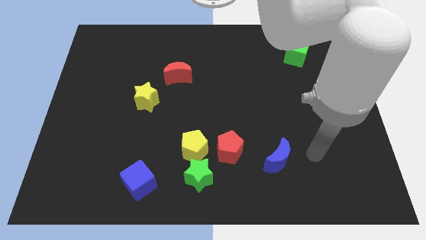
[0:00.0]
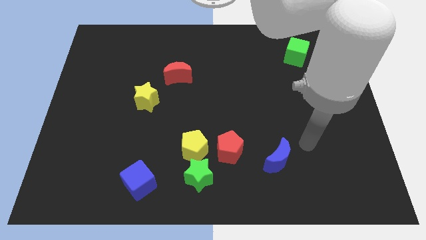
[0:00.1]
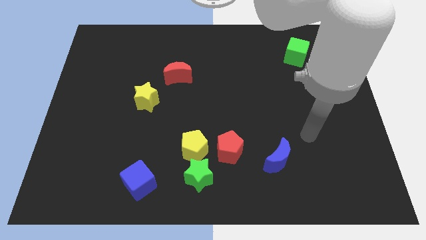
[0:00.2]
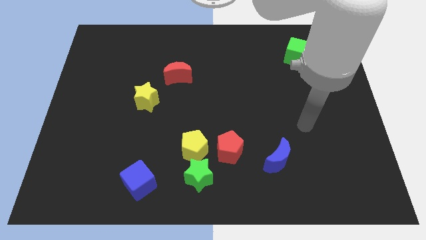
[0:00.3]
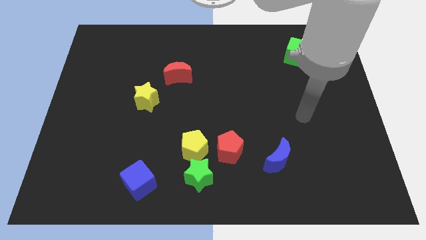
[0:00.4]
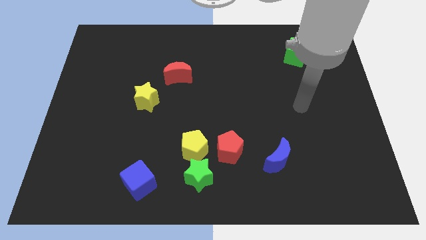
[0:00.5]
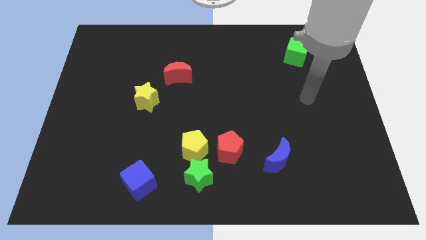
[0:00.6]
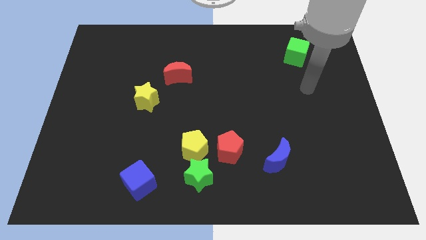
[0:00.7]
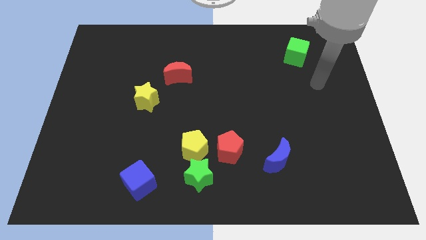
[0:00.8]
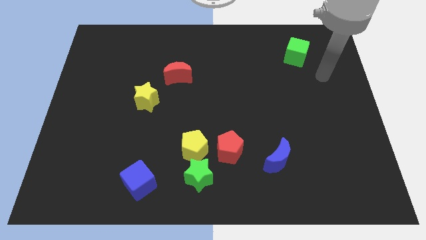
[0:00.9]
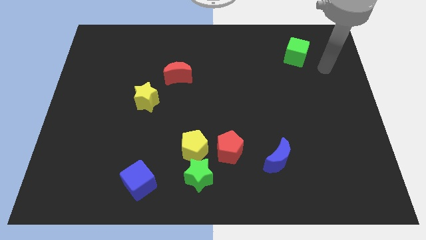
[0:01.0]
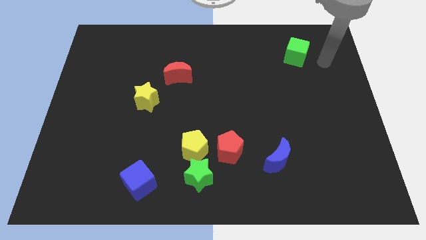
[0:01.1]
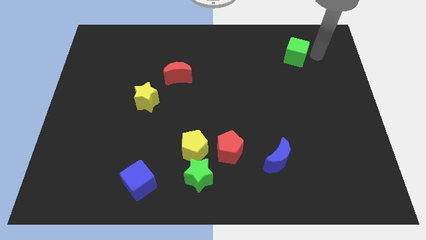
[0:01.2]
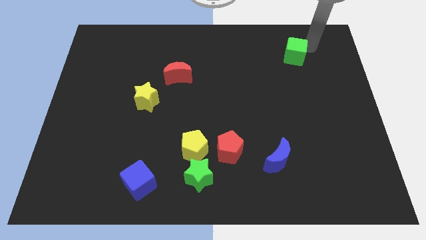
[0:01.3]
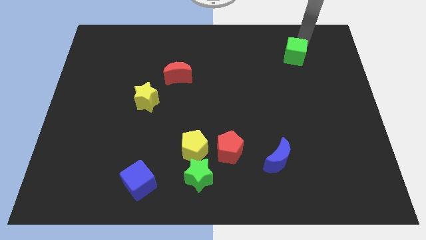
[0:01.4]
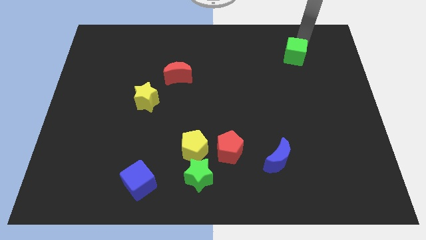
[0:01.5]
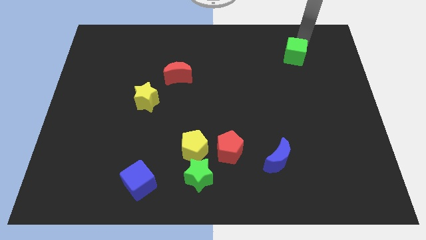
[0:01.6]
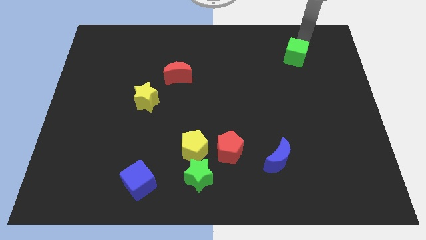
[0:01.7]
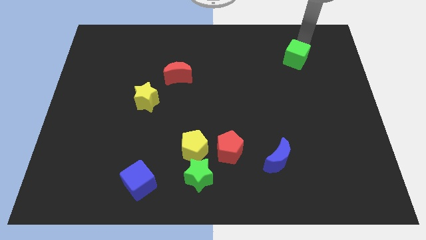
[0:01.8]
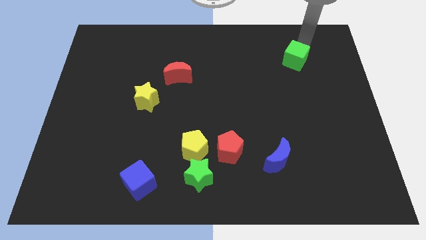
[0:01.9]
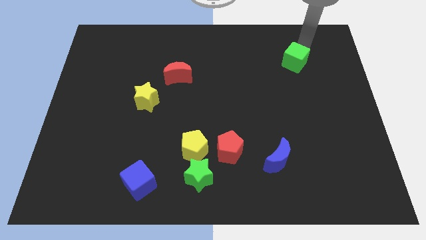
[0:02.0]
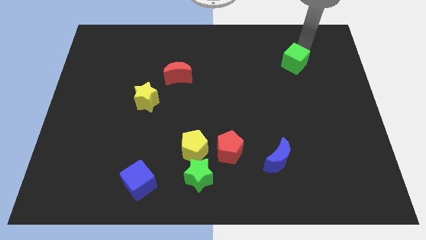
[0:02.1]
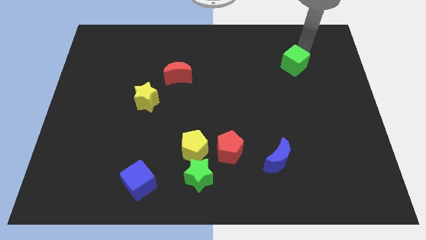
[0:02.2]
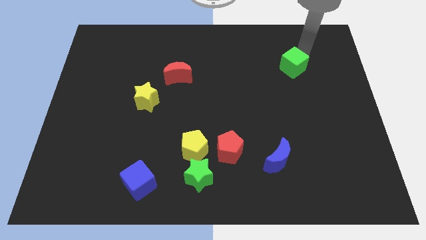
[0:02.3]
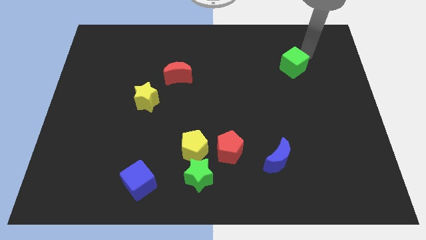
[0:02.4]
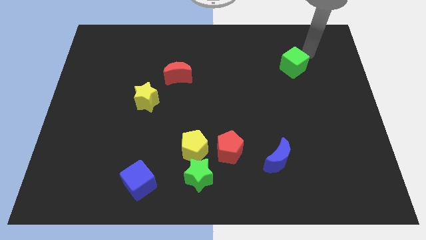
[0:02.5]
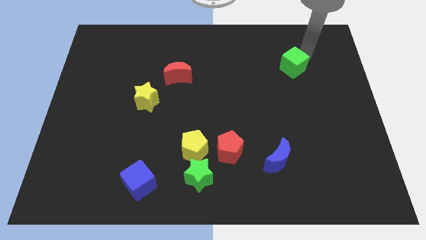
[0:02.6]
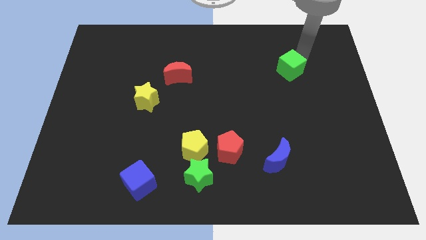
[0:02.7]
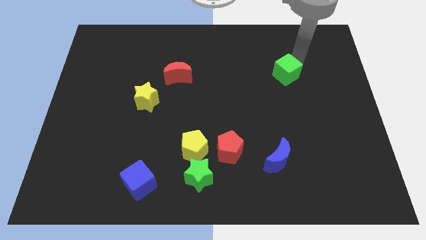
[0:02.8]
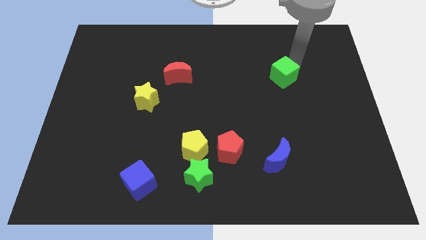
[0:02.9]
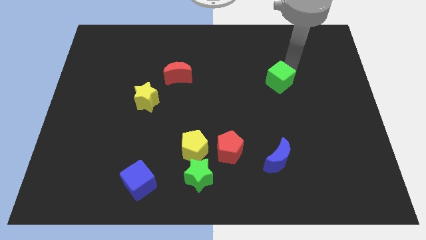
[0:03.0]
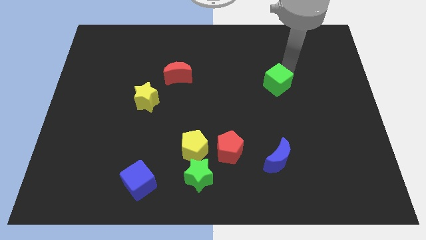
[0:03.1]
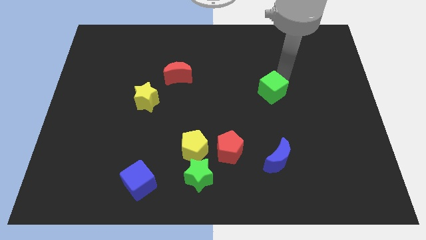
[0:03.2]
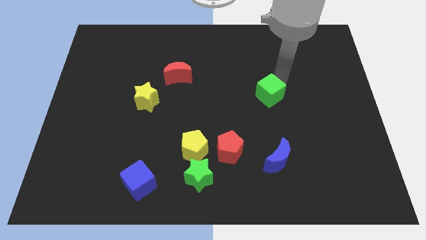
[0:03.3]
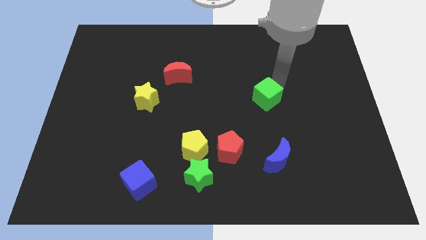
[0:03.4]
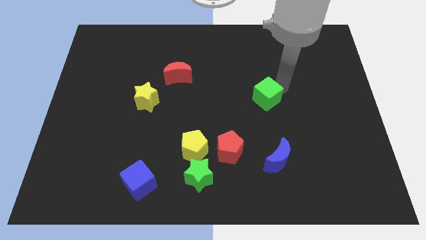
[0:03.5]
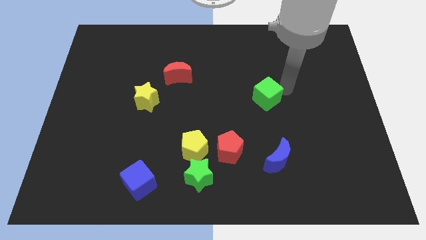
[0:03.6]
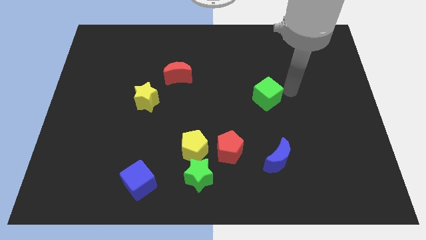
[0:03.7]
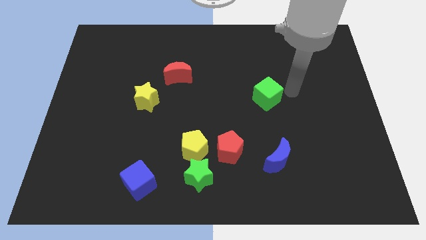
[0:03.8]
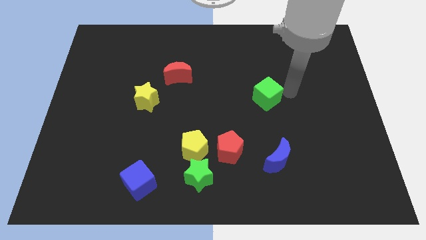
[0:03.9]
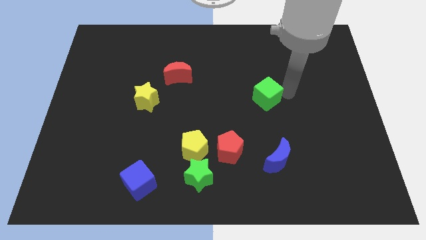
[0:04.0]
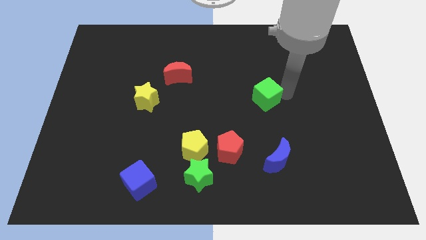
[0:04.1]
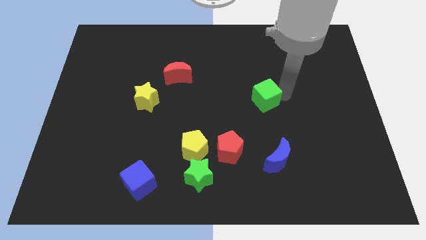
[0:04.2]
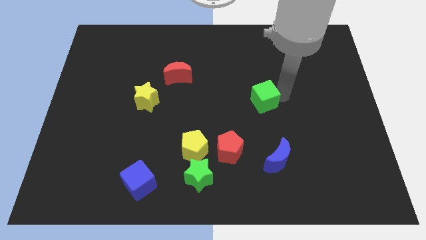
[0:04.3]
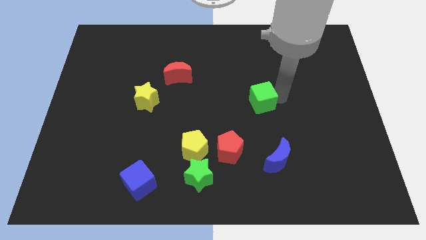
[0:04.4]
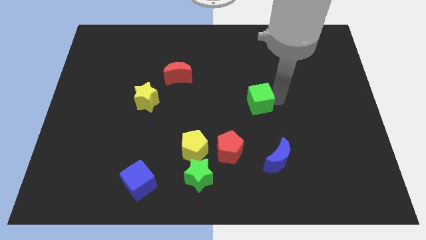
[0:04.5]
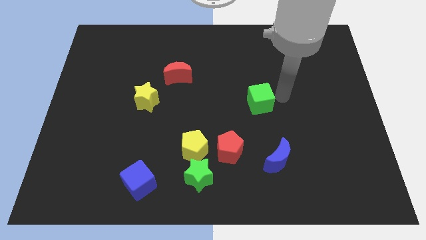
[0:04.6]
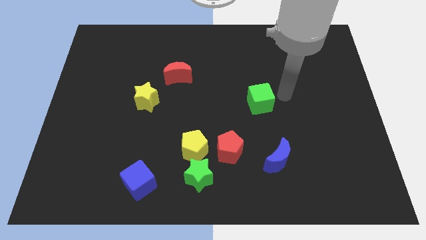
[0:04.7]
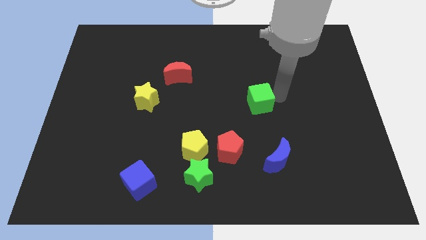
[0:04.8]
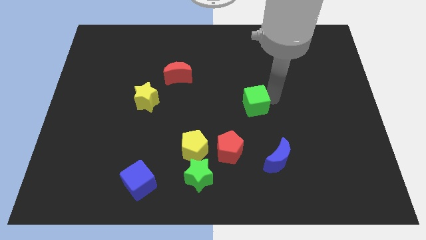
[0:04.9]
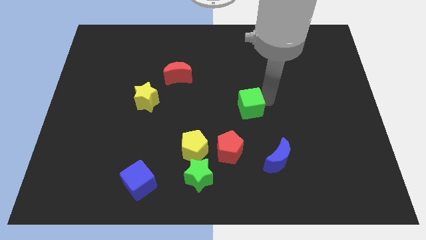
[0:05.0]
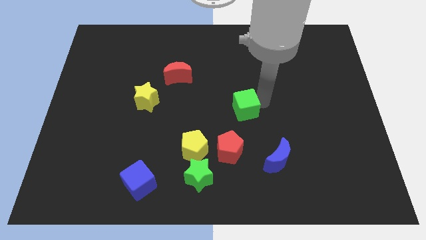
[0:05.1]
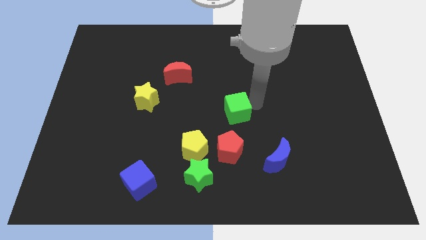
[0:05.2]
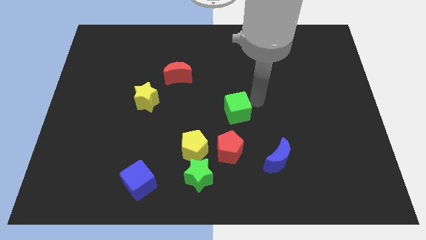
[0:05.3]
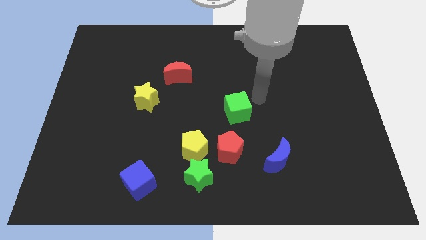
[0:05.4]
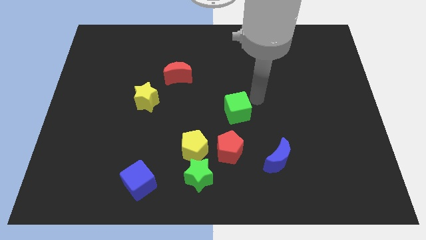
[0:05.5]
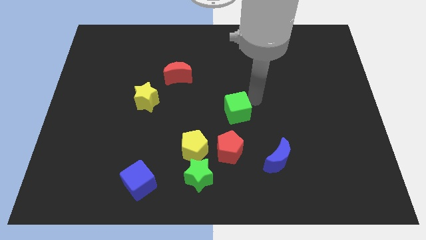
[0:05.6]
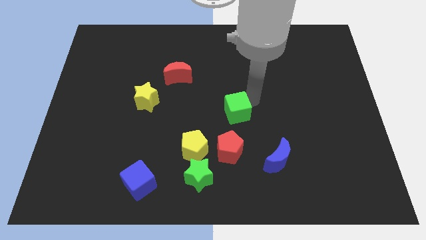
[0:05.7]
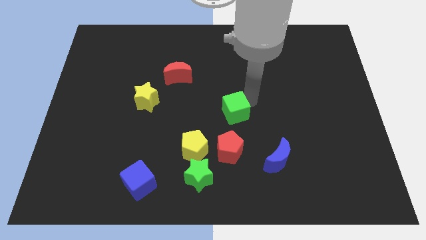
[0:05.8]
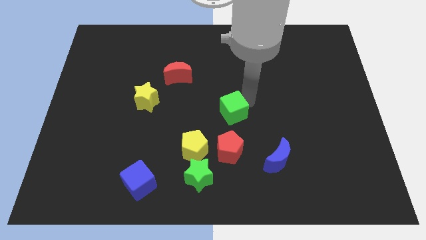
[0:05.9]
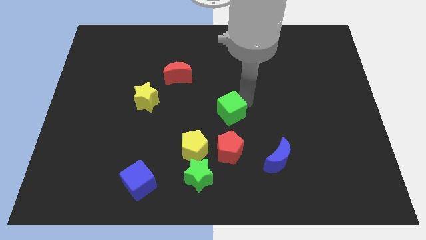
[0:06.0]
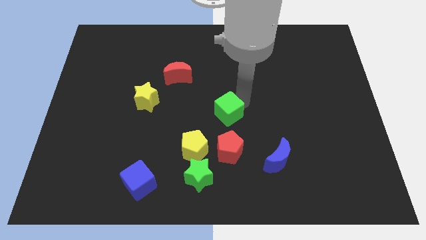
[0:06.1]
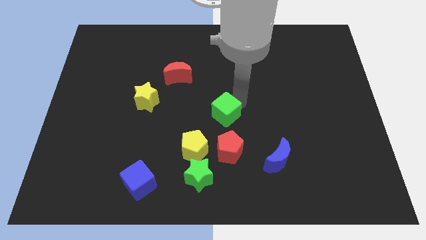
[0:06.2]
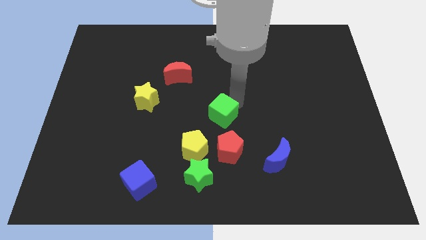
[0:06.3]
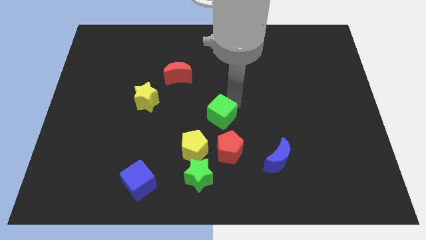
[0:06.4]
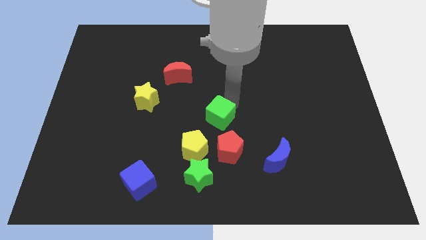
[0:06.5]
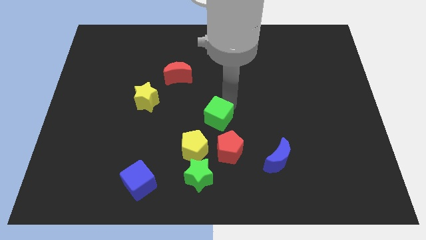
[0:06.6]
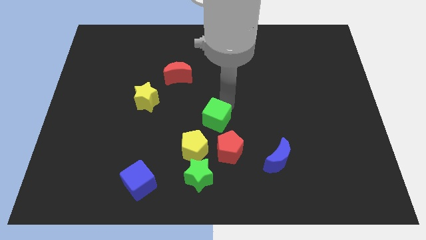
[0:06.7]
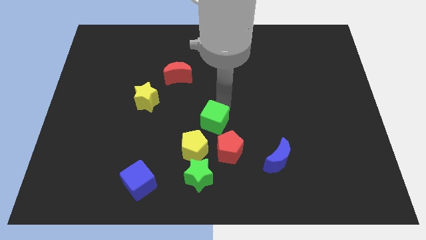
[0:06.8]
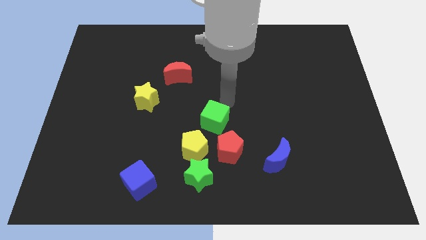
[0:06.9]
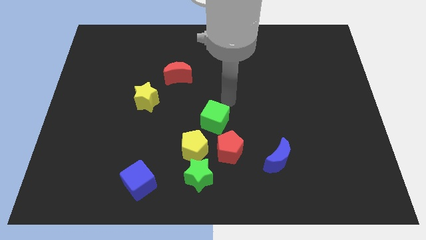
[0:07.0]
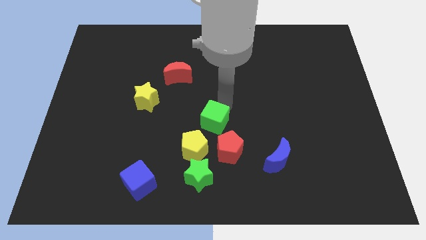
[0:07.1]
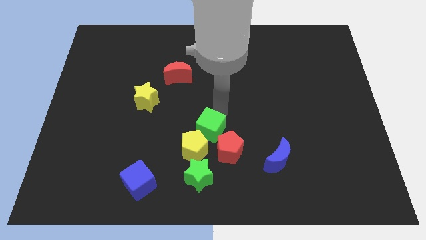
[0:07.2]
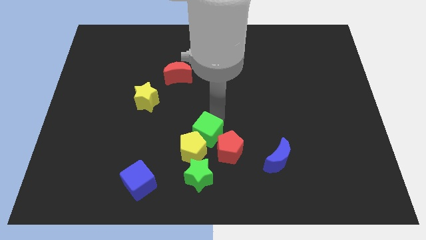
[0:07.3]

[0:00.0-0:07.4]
move the green cube to the yellow pentagon
